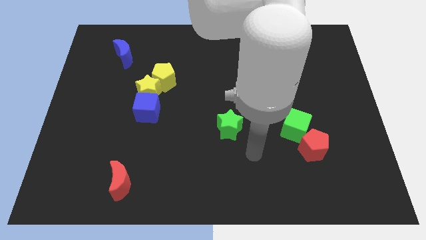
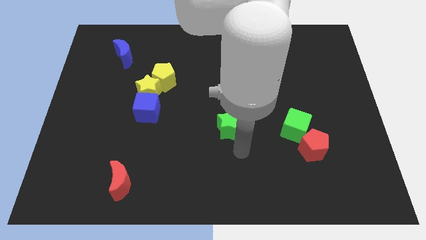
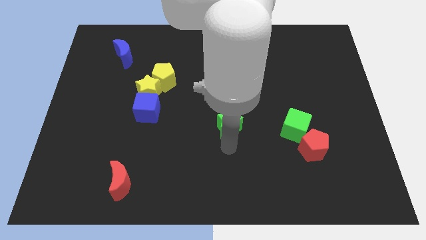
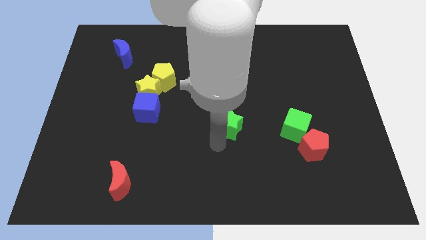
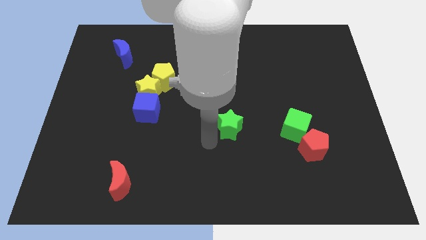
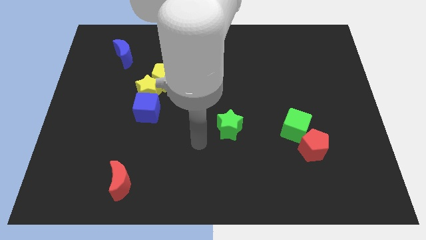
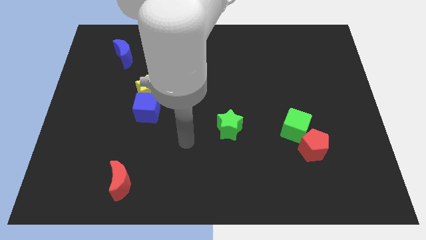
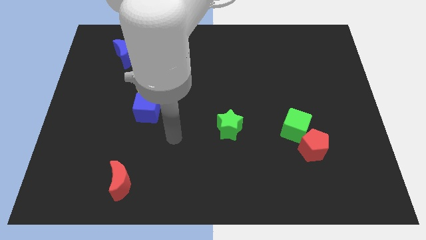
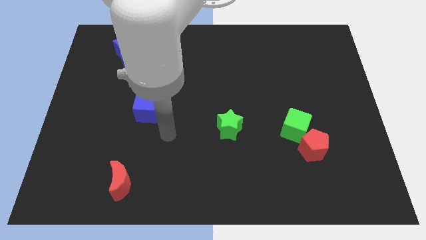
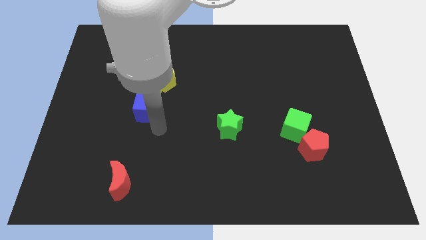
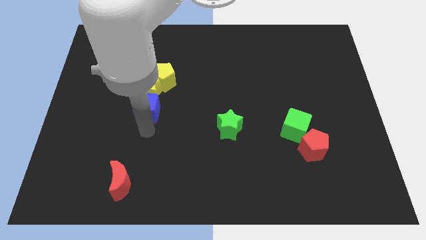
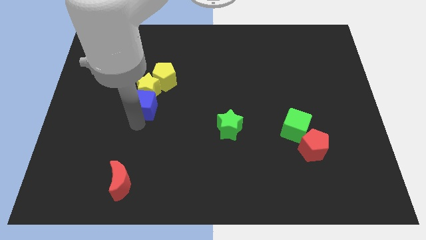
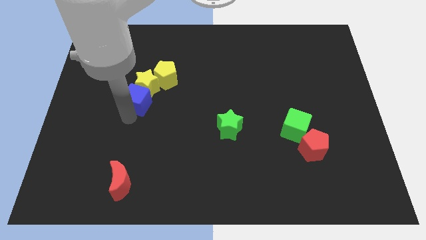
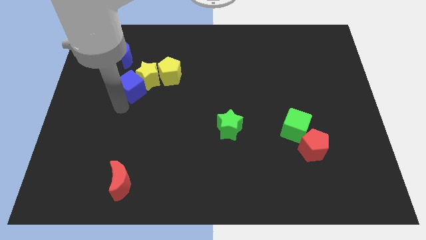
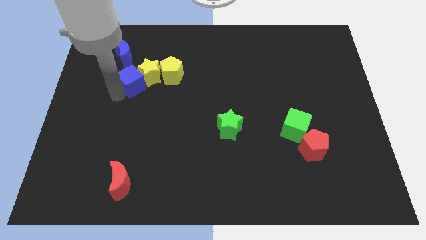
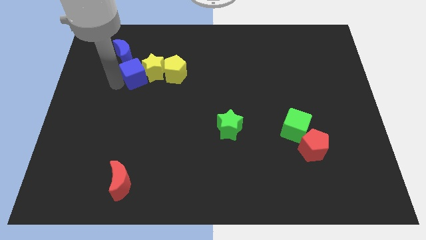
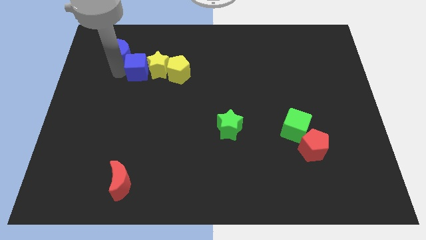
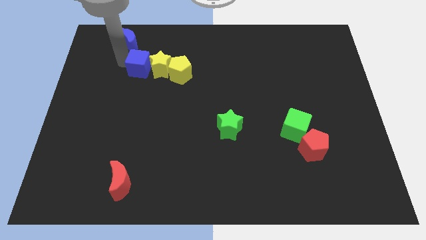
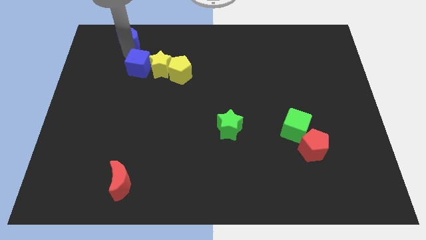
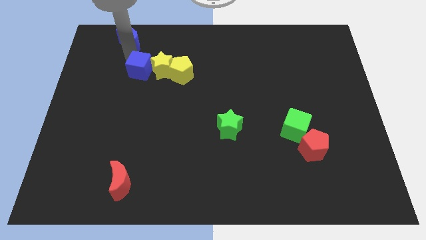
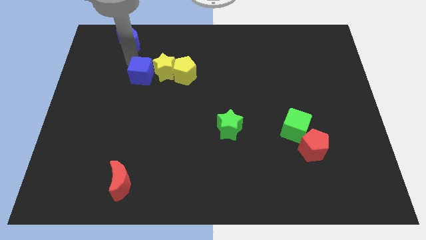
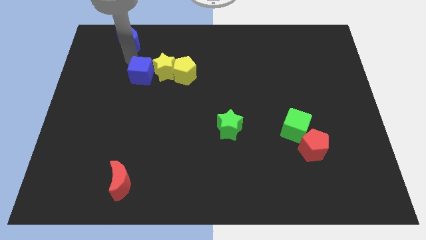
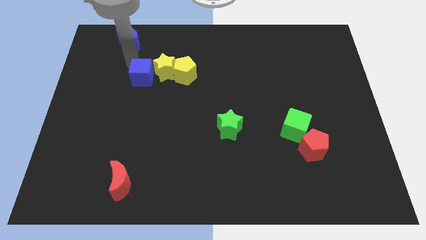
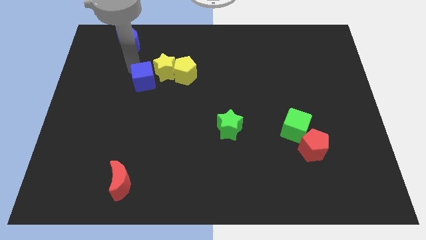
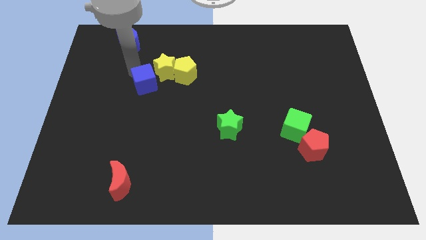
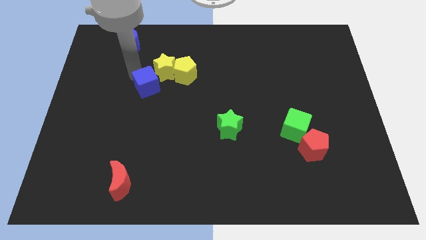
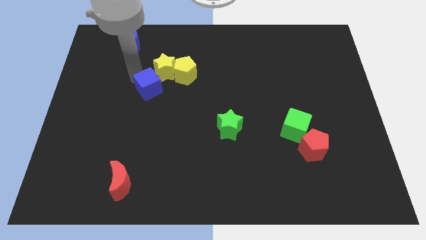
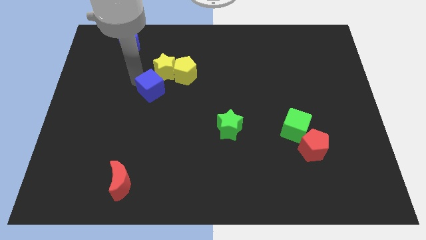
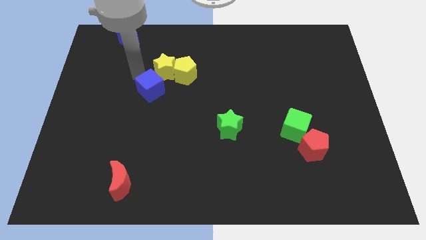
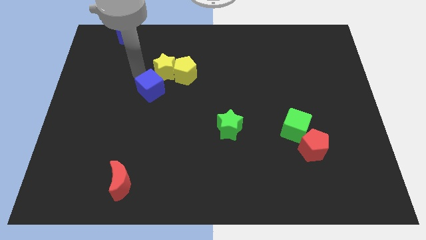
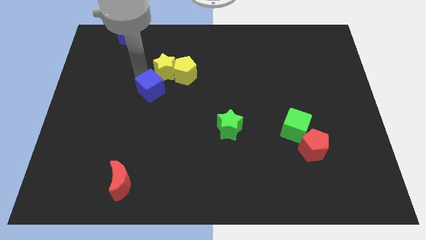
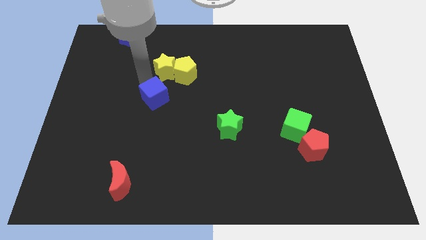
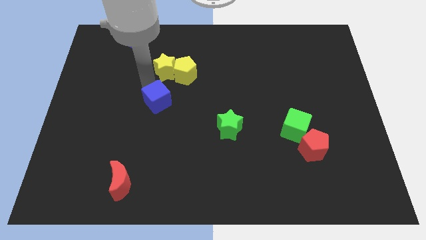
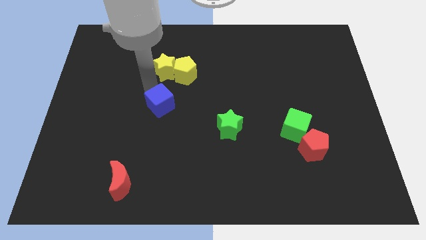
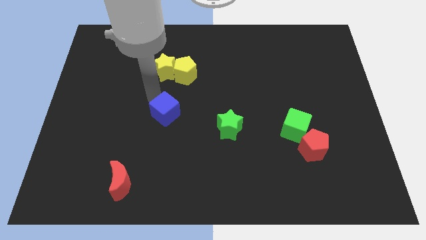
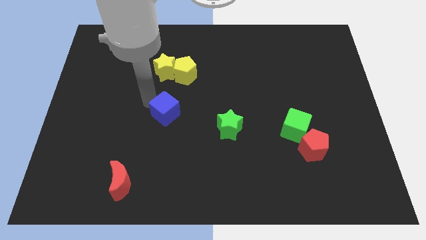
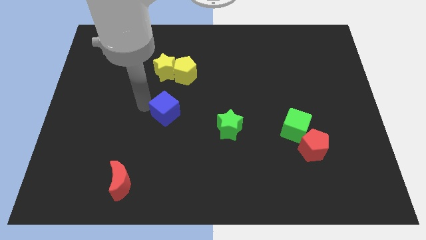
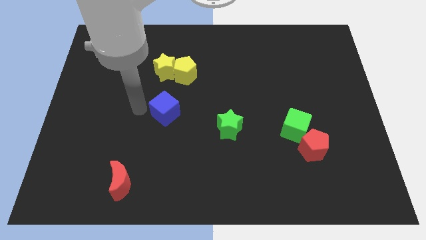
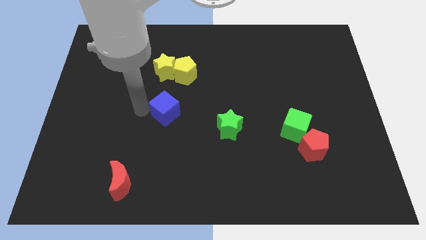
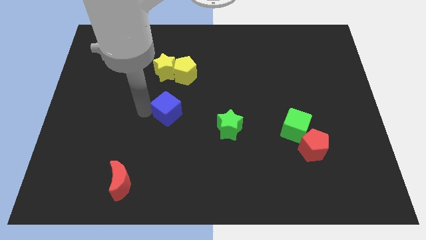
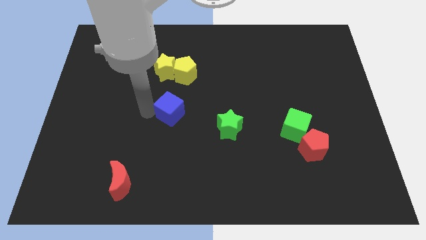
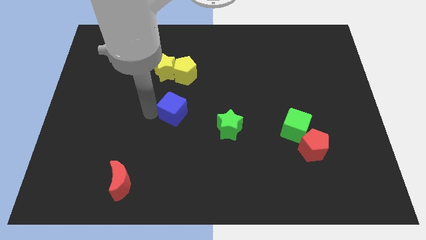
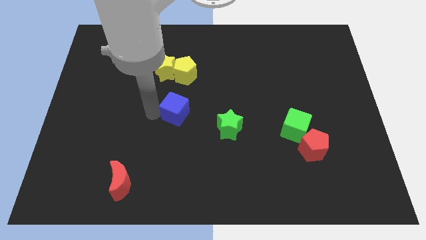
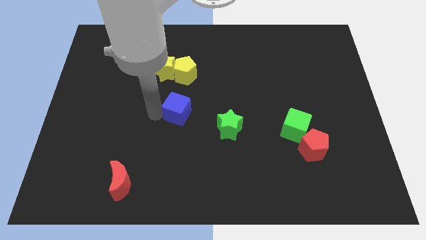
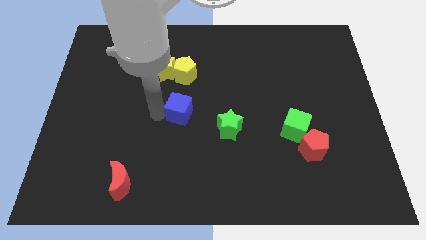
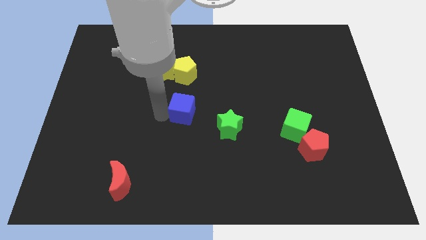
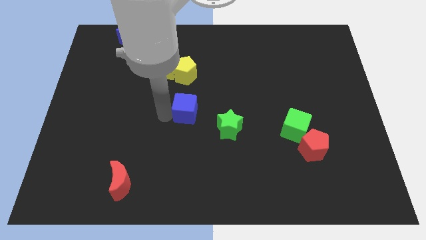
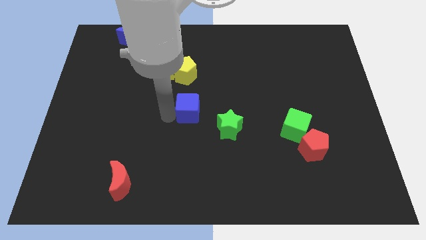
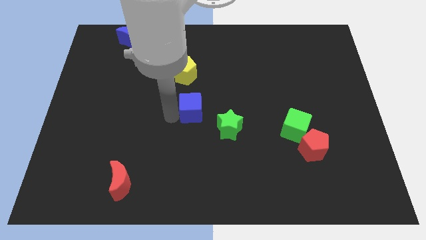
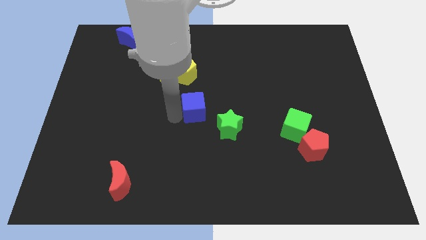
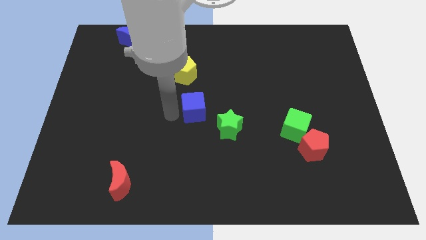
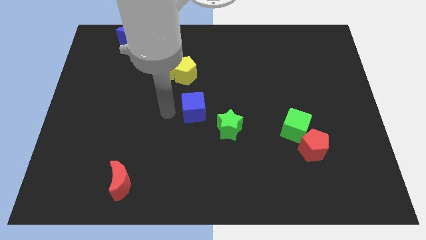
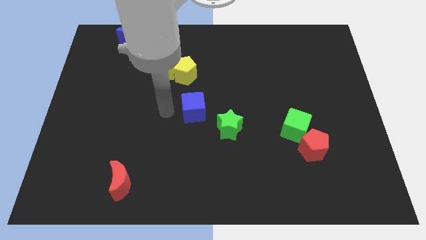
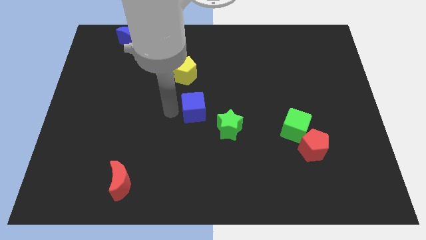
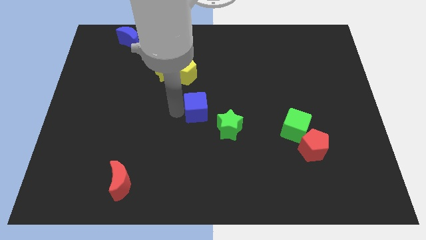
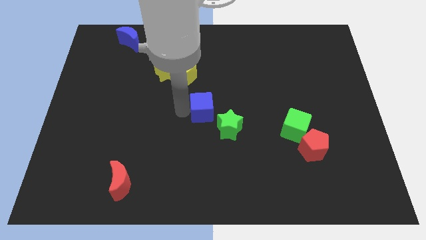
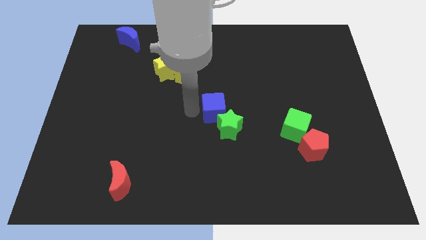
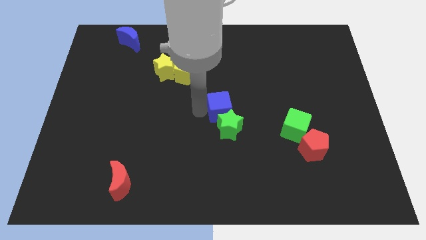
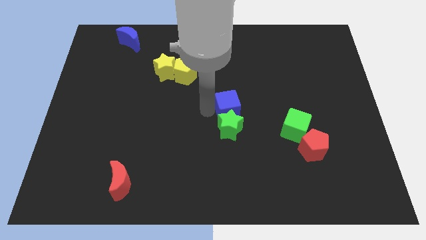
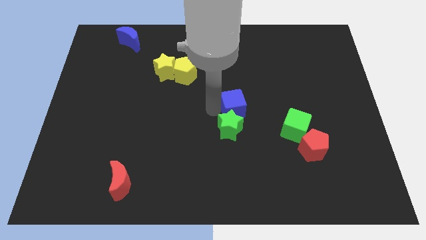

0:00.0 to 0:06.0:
move the blue cube to the right

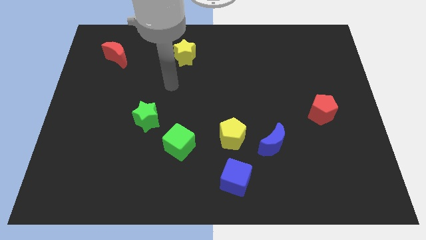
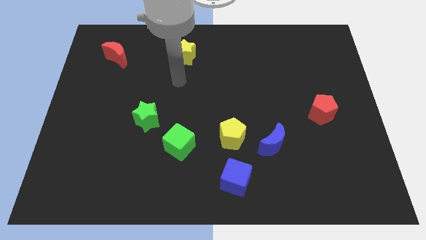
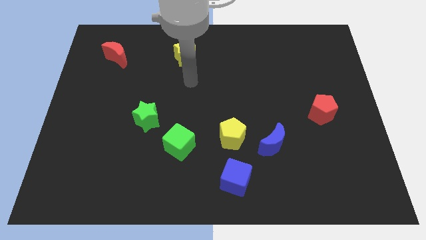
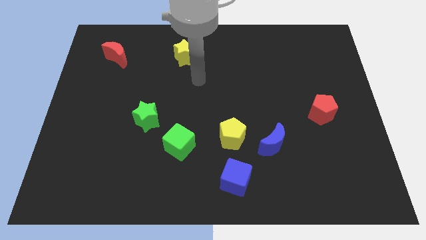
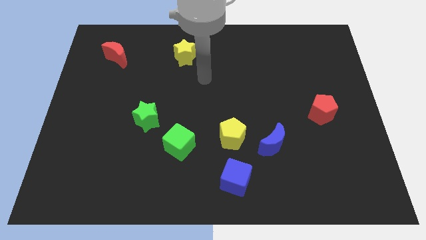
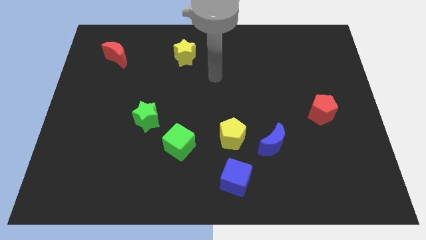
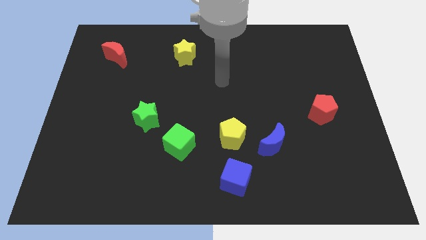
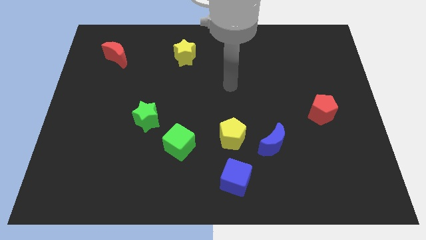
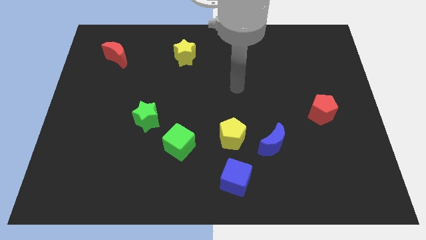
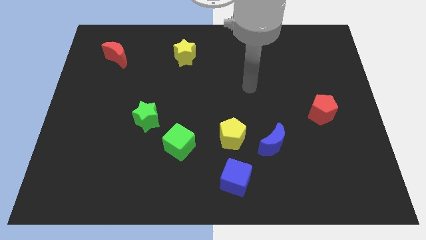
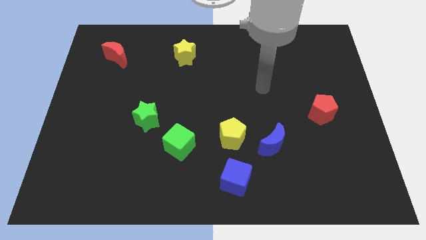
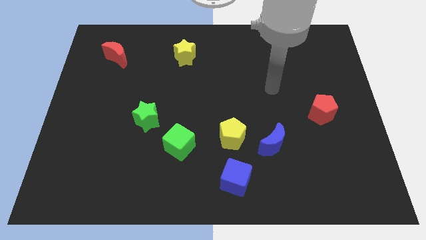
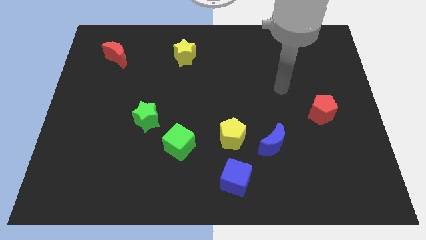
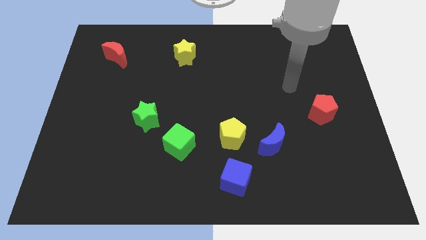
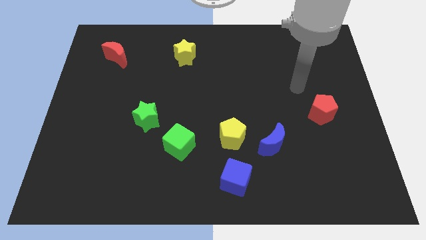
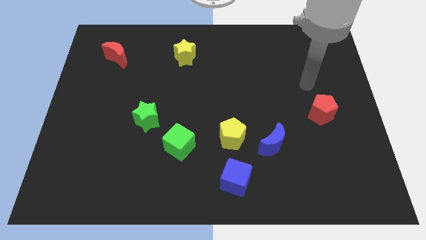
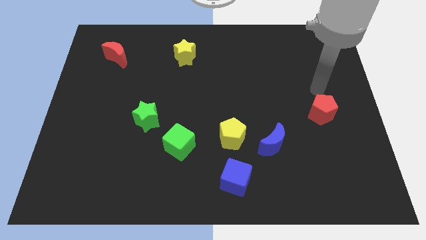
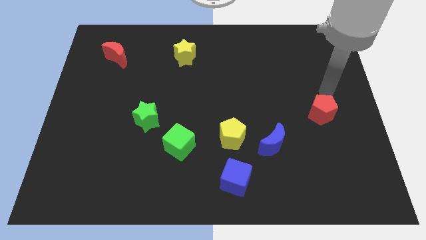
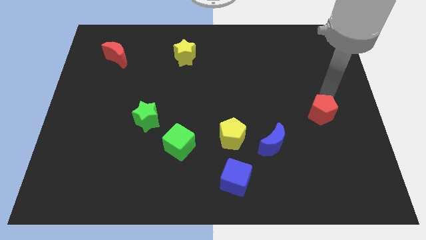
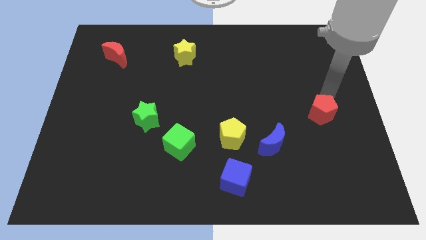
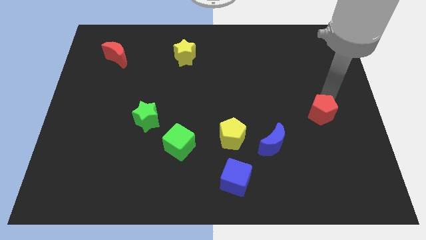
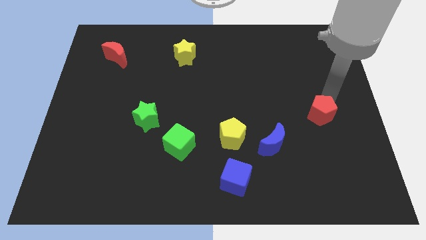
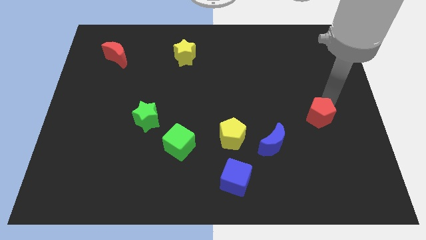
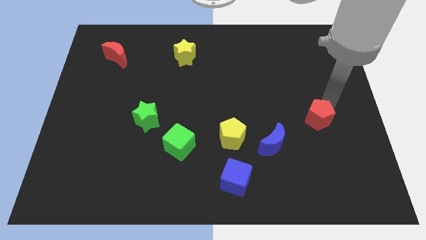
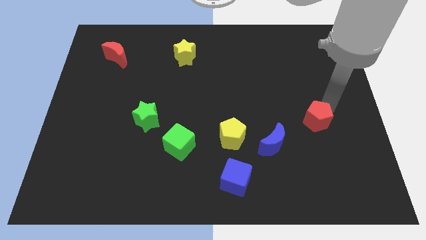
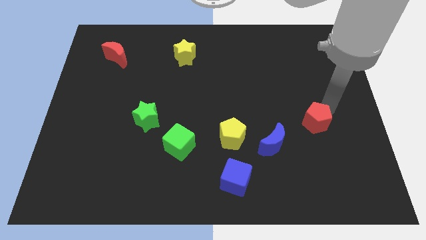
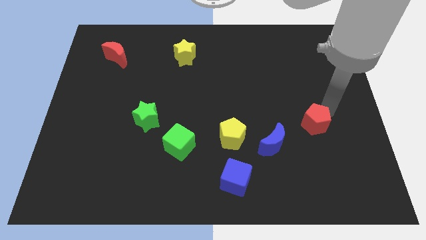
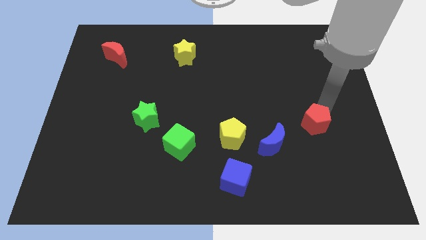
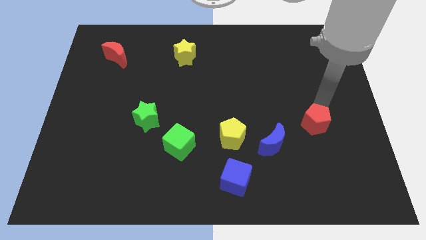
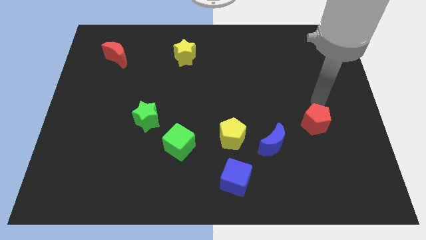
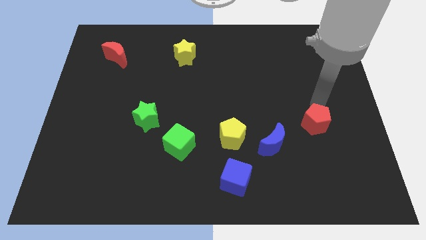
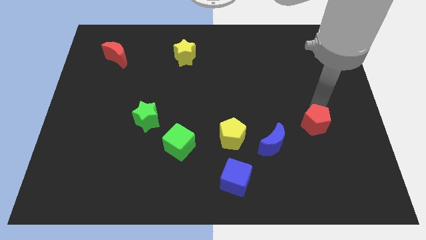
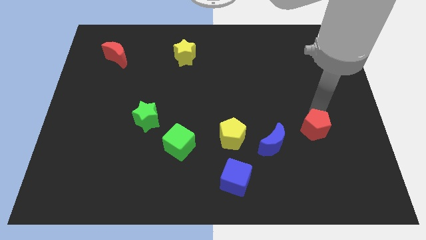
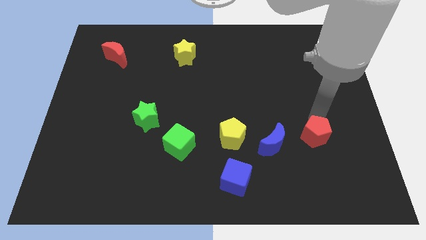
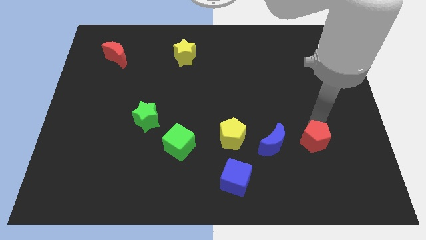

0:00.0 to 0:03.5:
move the red pentagon slightly down and then left
